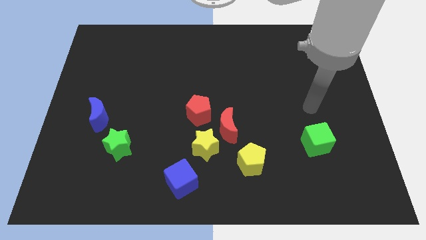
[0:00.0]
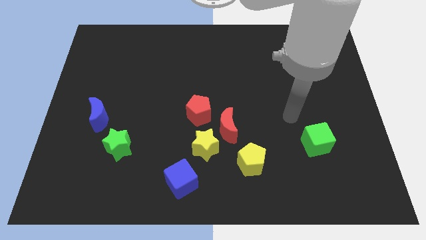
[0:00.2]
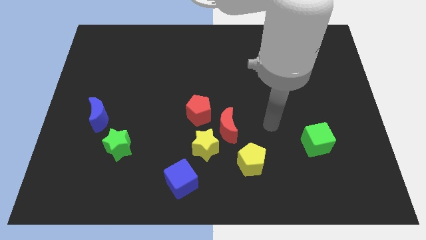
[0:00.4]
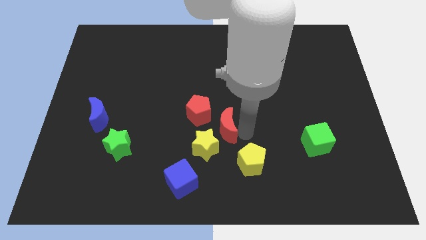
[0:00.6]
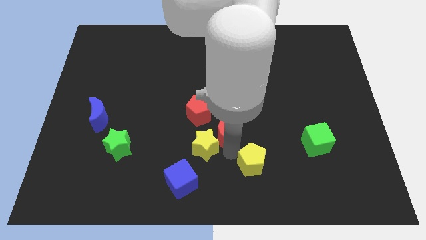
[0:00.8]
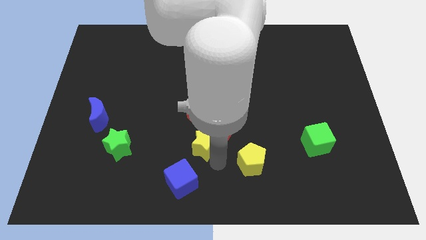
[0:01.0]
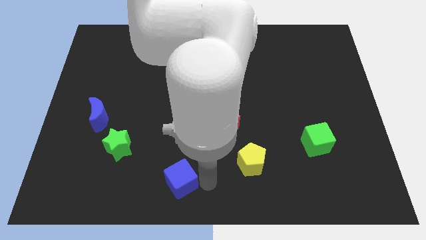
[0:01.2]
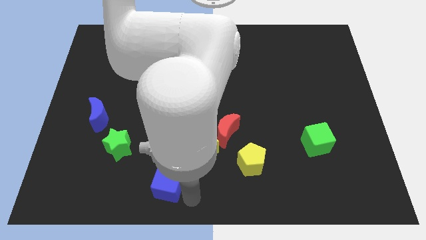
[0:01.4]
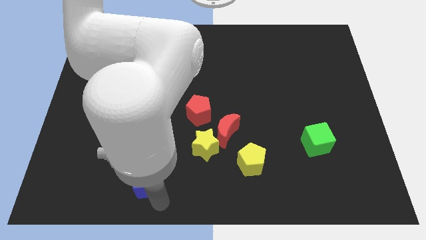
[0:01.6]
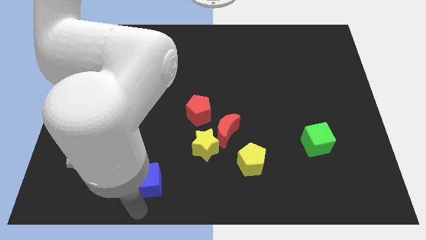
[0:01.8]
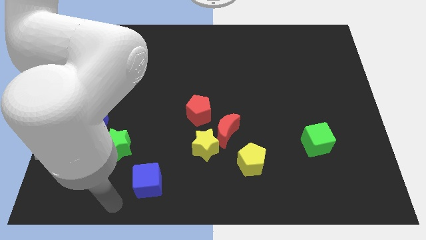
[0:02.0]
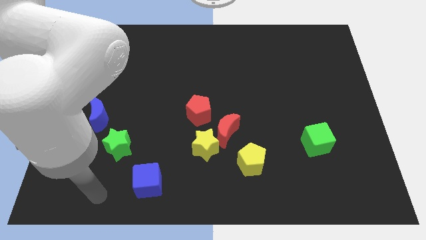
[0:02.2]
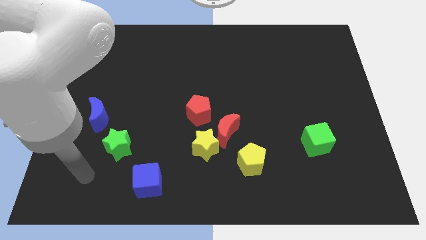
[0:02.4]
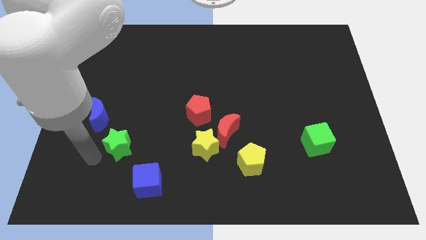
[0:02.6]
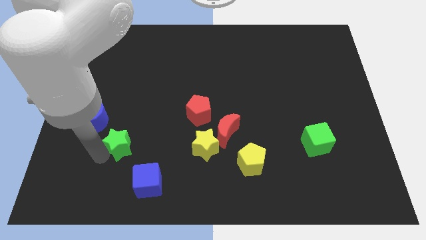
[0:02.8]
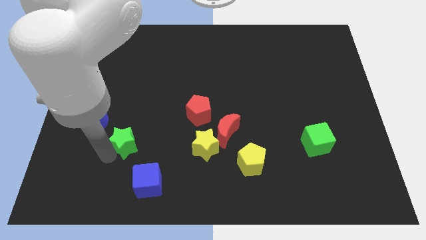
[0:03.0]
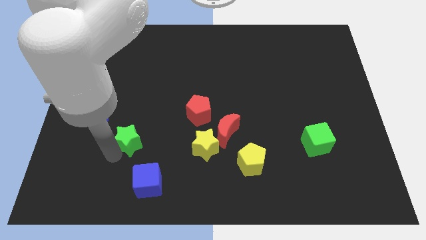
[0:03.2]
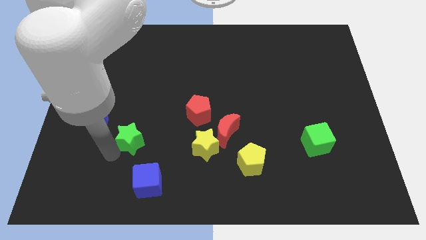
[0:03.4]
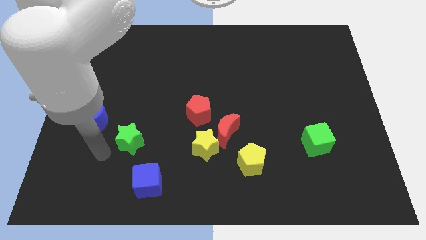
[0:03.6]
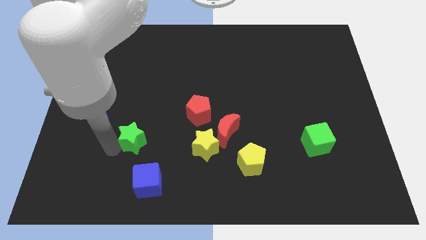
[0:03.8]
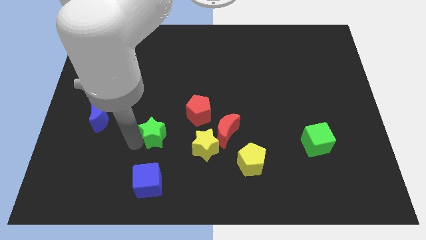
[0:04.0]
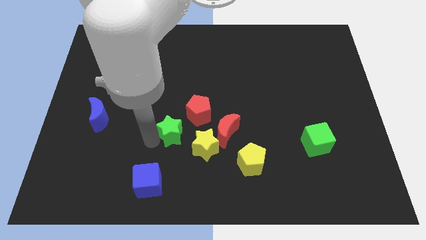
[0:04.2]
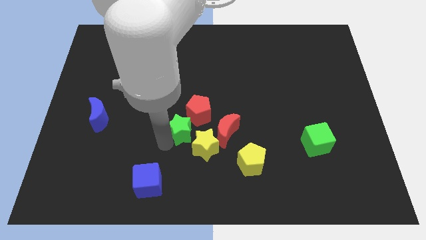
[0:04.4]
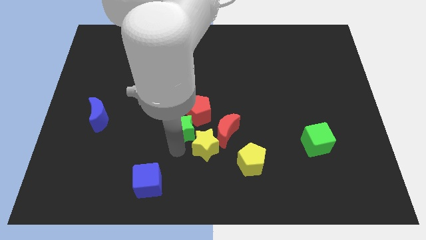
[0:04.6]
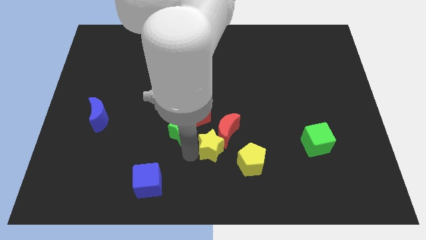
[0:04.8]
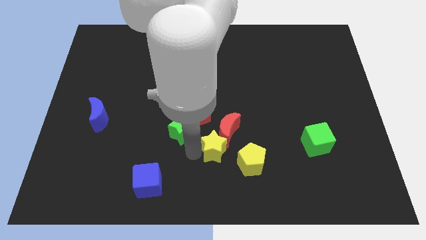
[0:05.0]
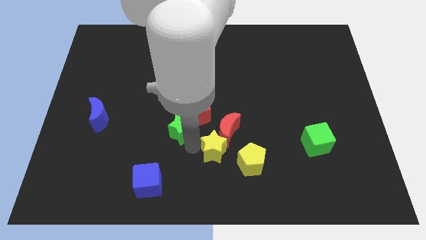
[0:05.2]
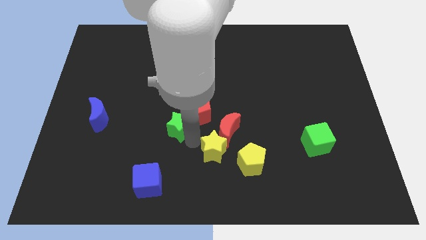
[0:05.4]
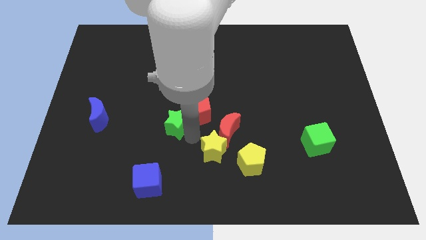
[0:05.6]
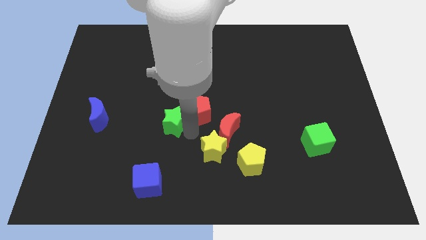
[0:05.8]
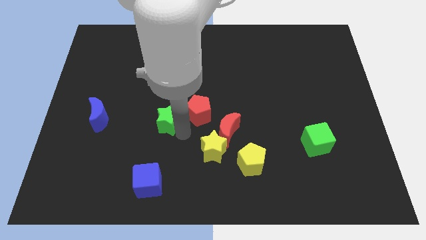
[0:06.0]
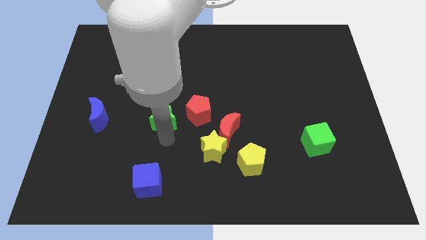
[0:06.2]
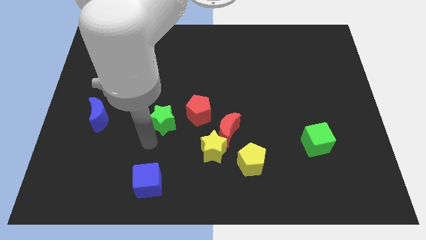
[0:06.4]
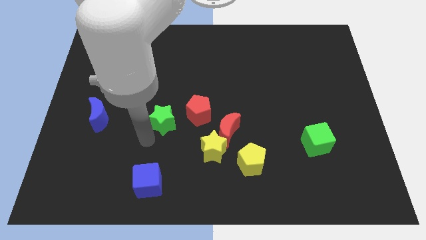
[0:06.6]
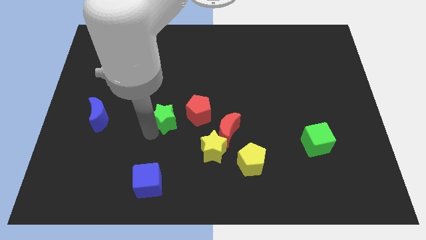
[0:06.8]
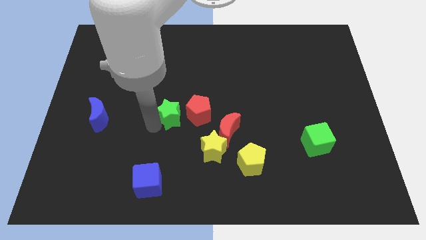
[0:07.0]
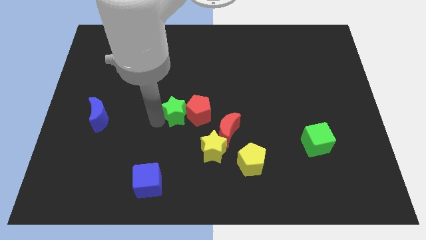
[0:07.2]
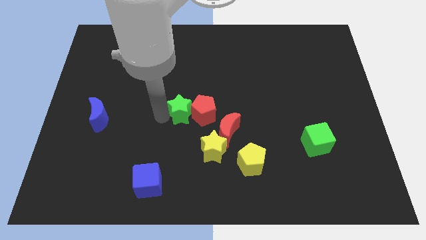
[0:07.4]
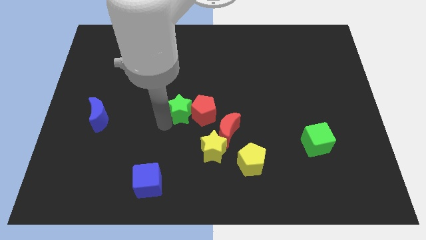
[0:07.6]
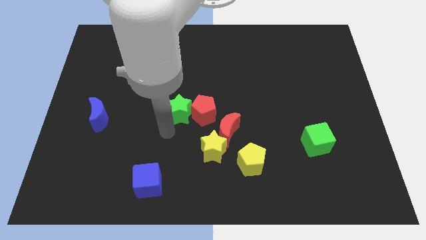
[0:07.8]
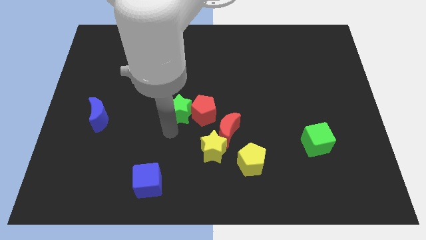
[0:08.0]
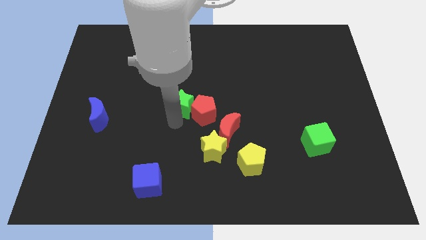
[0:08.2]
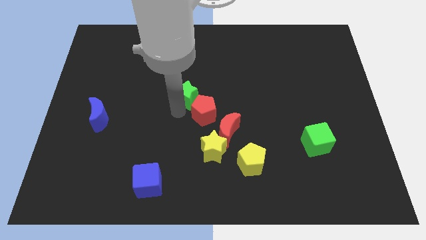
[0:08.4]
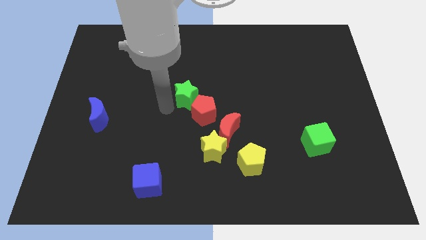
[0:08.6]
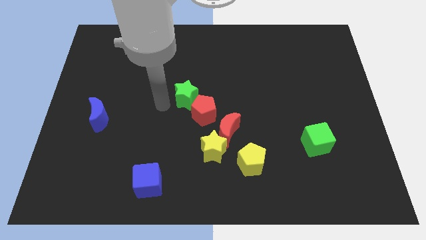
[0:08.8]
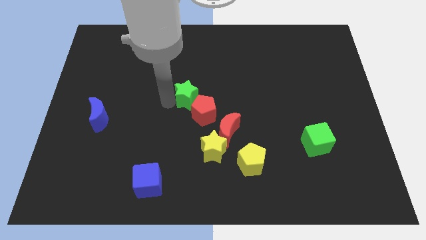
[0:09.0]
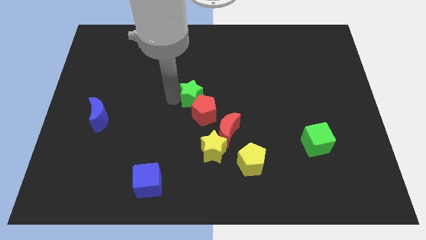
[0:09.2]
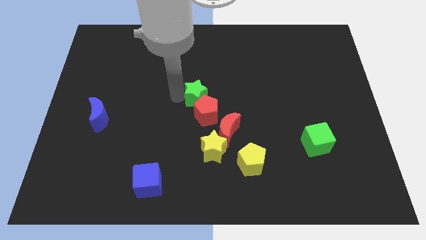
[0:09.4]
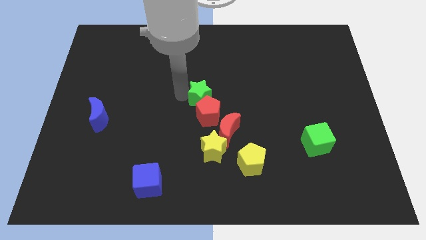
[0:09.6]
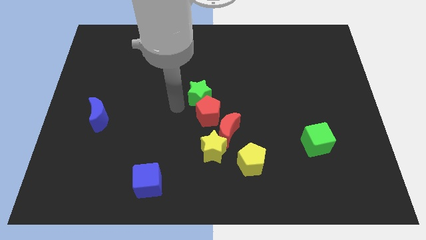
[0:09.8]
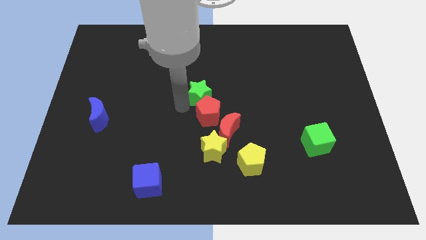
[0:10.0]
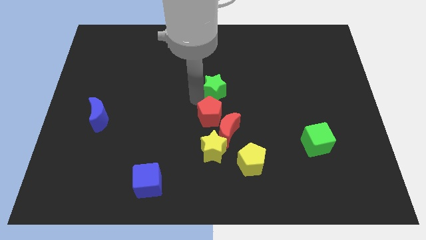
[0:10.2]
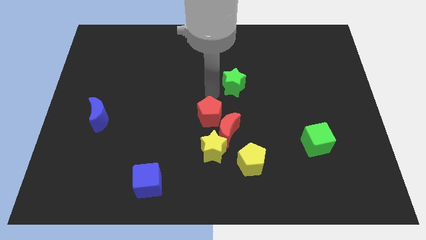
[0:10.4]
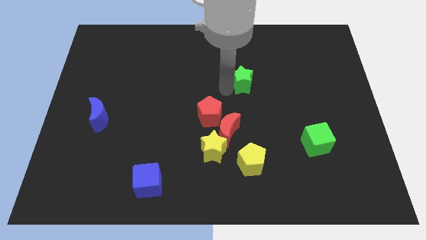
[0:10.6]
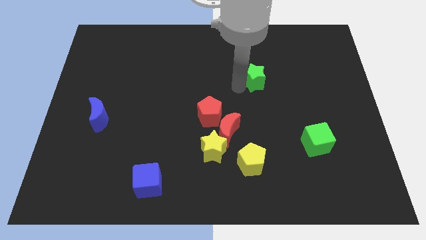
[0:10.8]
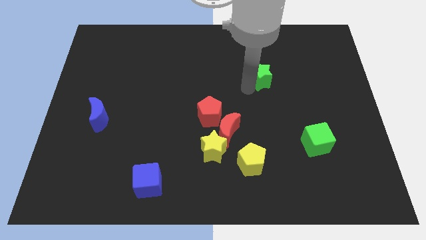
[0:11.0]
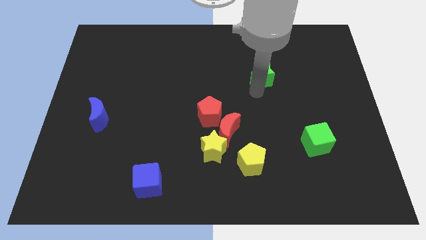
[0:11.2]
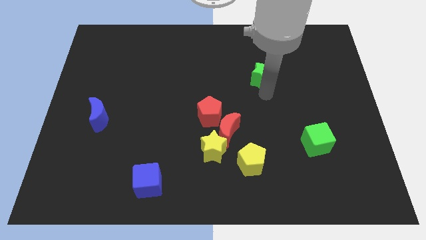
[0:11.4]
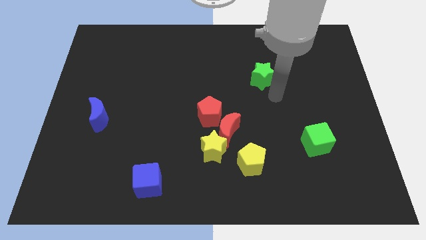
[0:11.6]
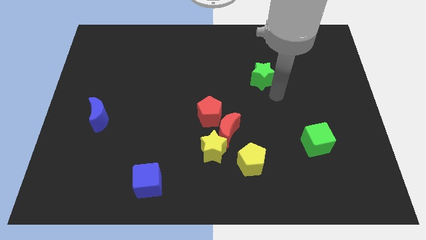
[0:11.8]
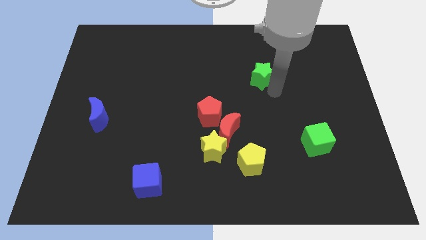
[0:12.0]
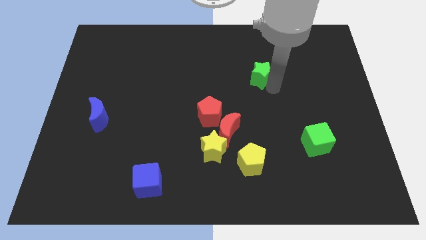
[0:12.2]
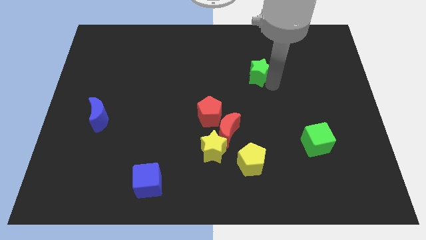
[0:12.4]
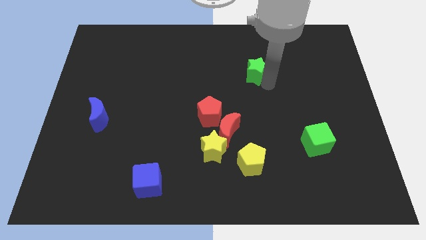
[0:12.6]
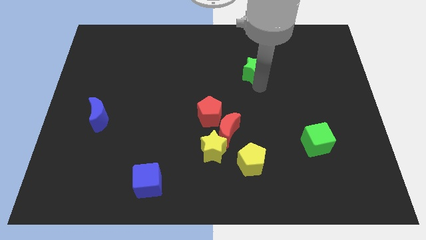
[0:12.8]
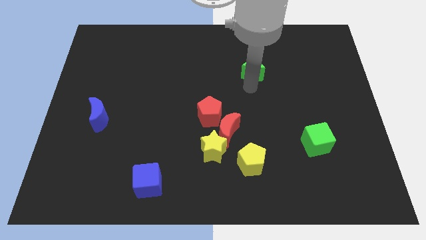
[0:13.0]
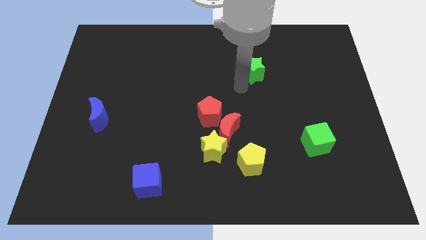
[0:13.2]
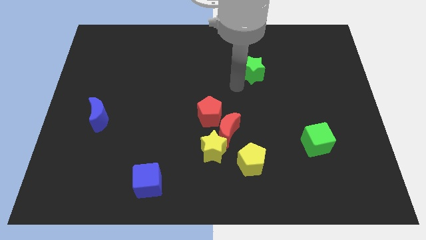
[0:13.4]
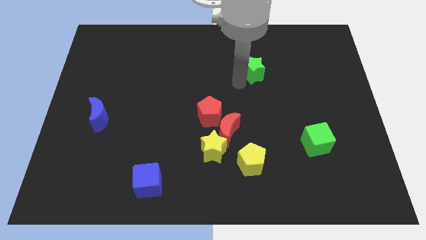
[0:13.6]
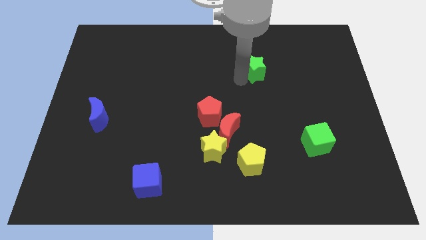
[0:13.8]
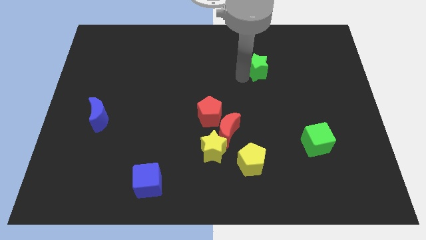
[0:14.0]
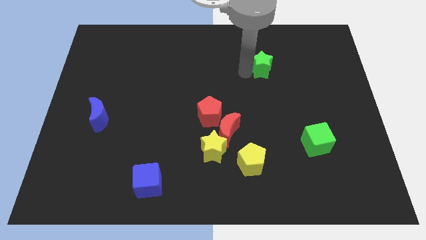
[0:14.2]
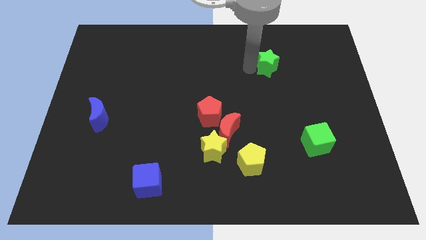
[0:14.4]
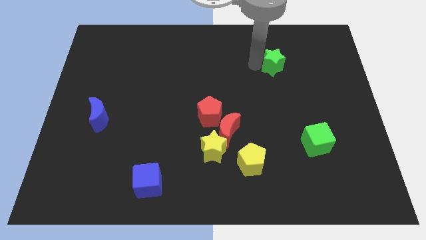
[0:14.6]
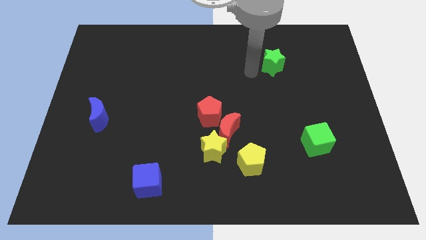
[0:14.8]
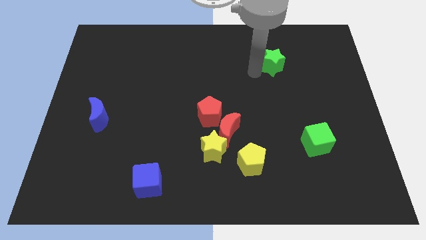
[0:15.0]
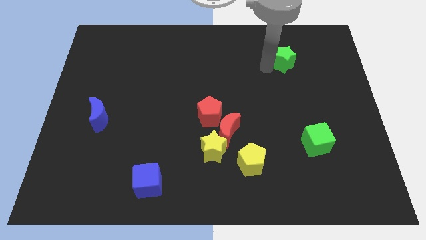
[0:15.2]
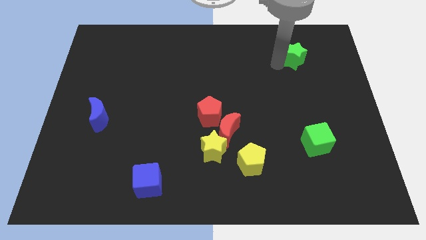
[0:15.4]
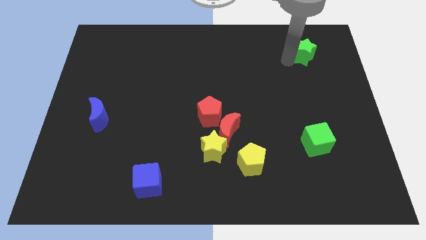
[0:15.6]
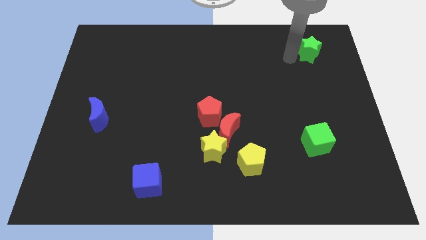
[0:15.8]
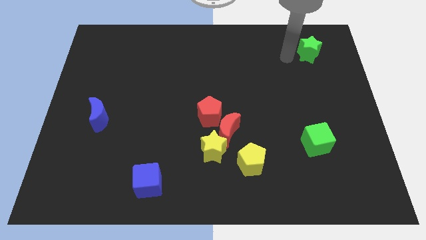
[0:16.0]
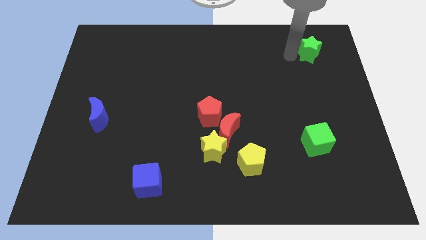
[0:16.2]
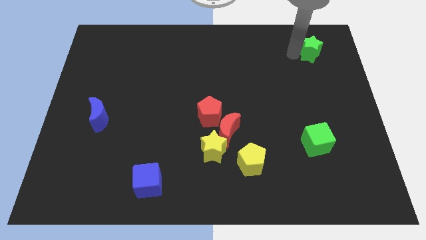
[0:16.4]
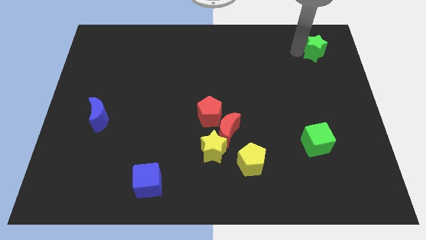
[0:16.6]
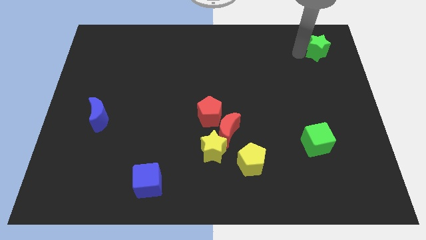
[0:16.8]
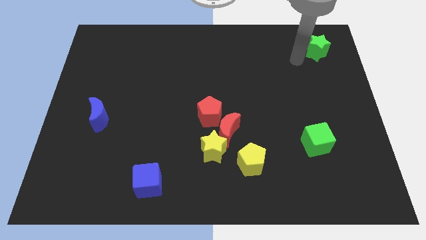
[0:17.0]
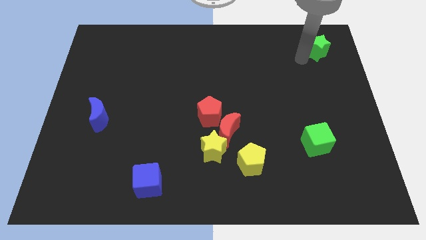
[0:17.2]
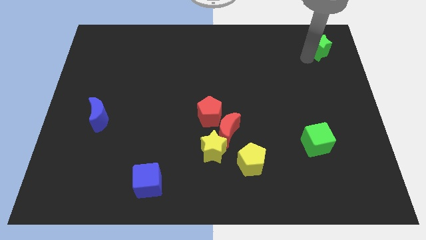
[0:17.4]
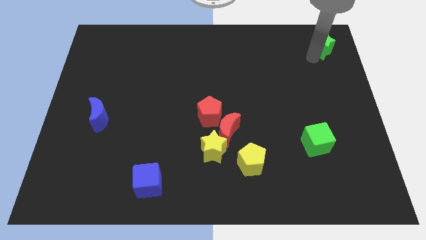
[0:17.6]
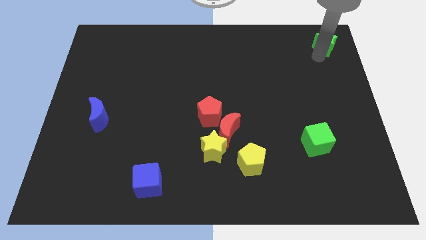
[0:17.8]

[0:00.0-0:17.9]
slide the green star to the upper right corner
